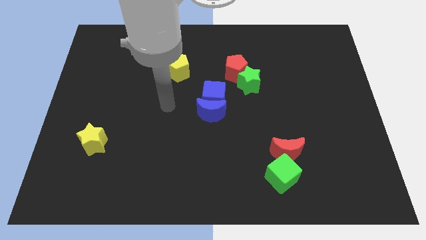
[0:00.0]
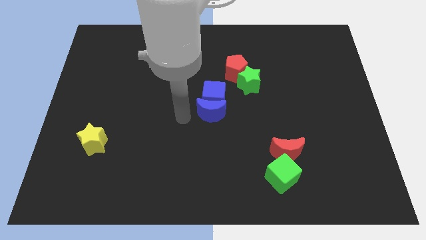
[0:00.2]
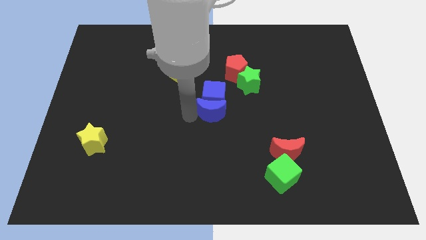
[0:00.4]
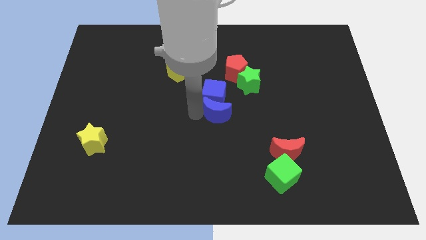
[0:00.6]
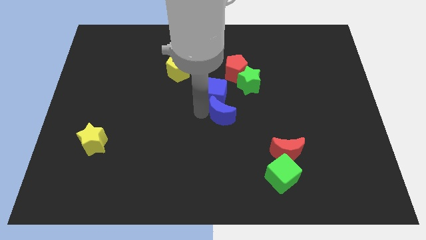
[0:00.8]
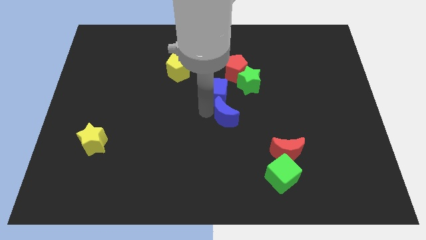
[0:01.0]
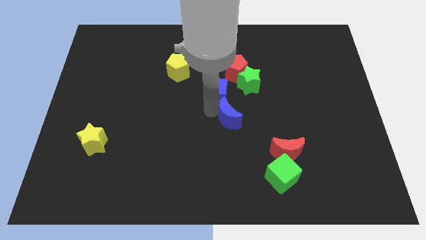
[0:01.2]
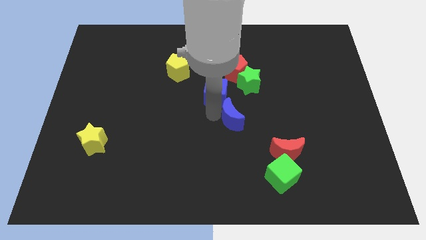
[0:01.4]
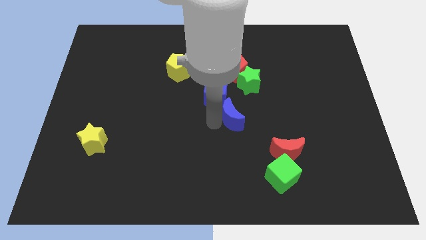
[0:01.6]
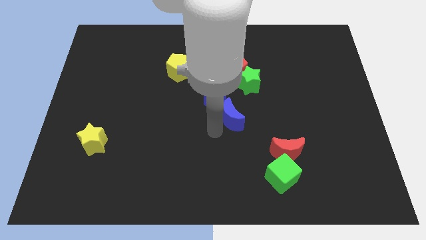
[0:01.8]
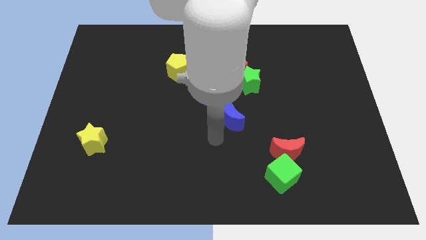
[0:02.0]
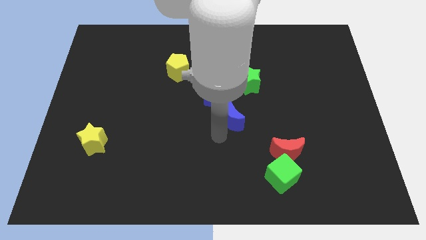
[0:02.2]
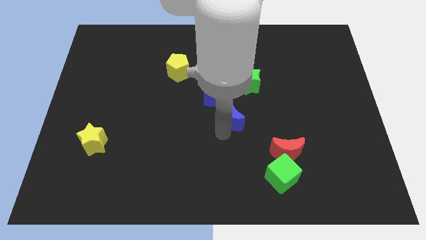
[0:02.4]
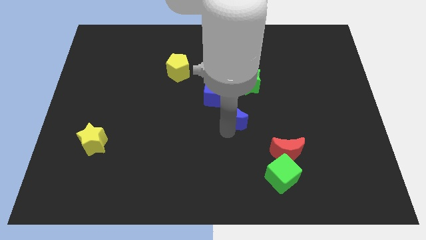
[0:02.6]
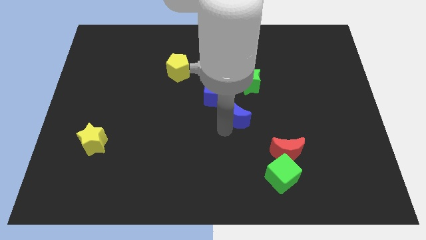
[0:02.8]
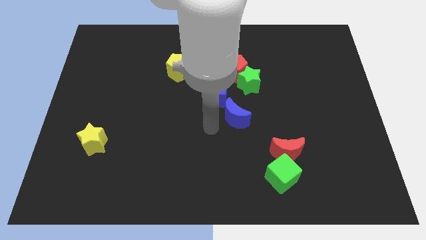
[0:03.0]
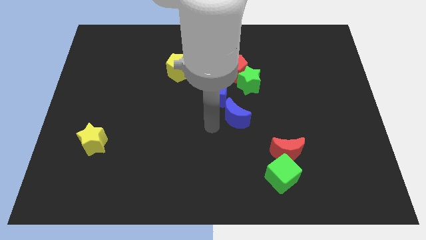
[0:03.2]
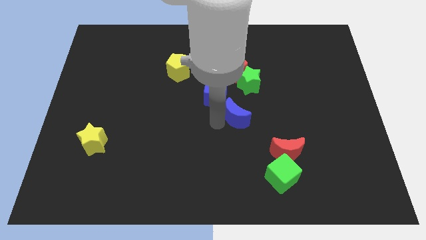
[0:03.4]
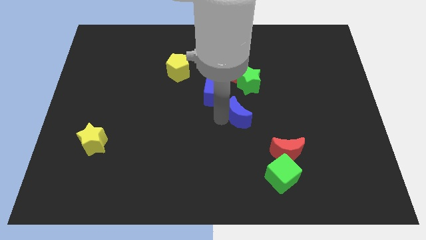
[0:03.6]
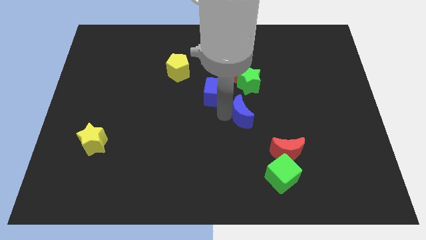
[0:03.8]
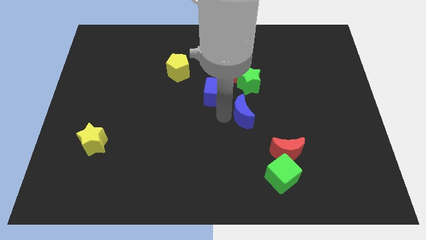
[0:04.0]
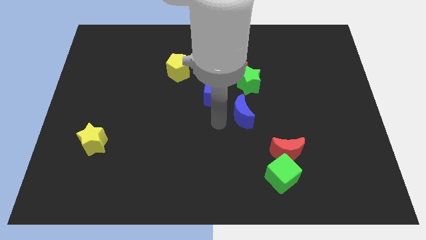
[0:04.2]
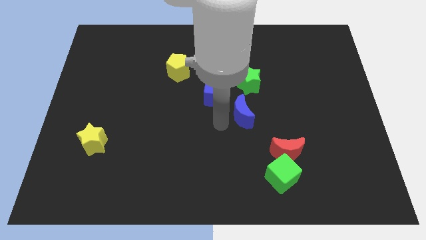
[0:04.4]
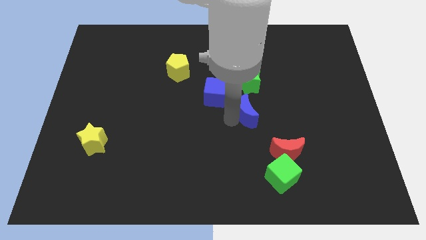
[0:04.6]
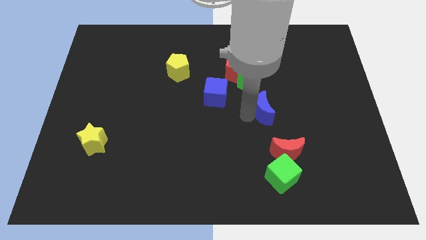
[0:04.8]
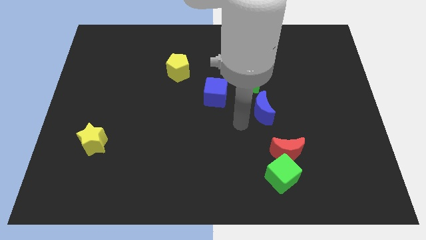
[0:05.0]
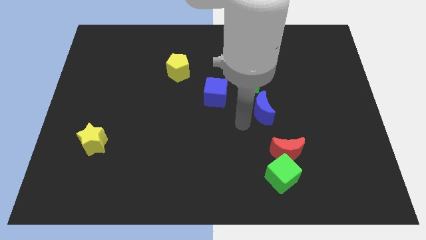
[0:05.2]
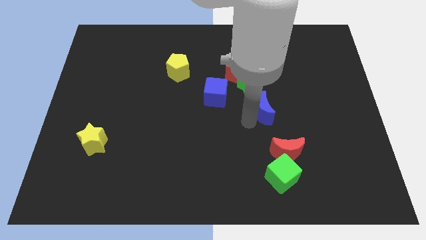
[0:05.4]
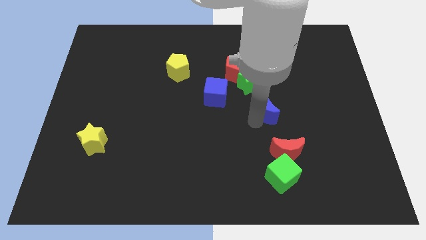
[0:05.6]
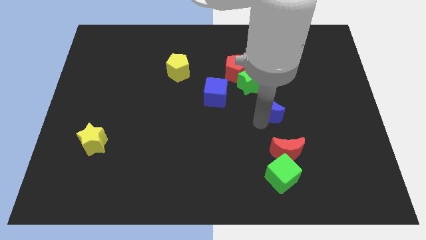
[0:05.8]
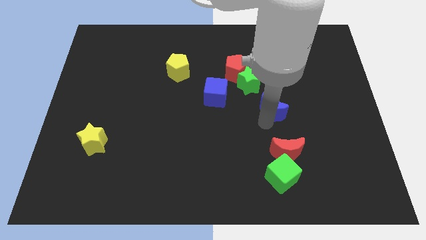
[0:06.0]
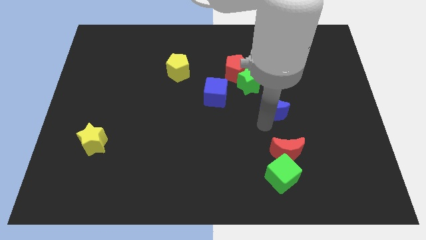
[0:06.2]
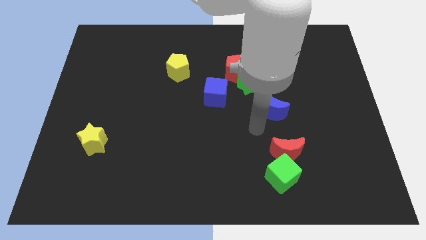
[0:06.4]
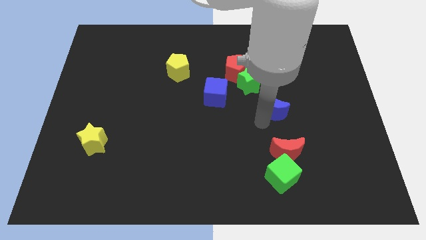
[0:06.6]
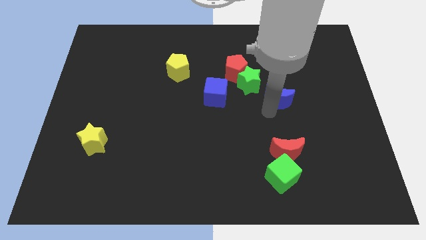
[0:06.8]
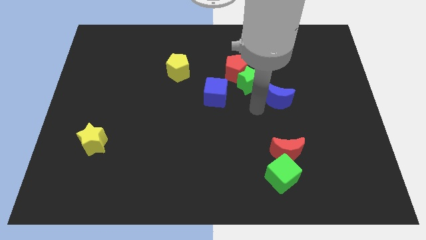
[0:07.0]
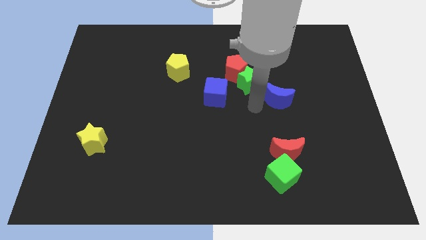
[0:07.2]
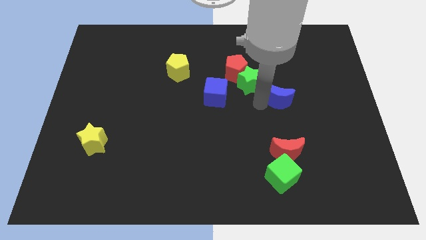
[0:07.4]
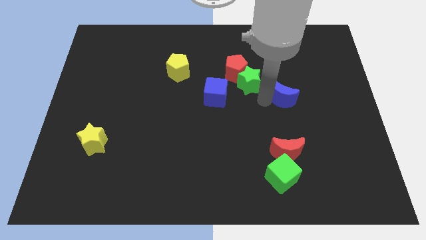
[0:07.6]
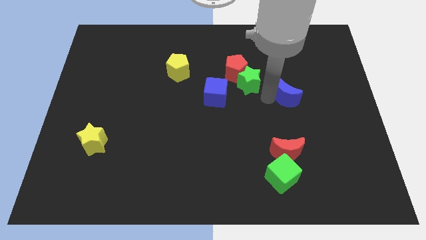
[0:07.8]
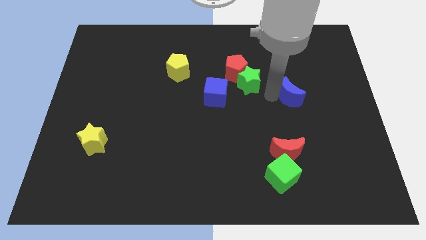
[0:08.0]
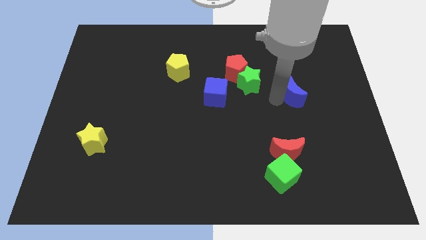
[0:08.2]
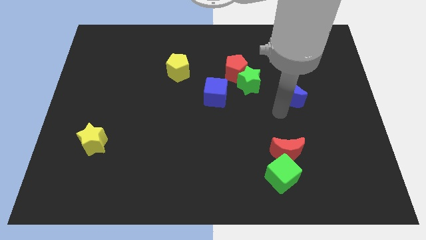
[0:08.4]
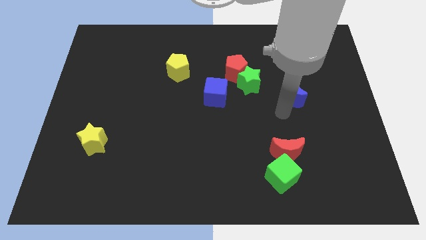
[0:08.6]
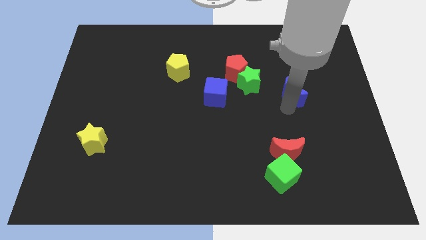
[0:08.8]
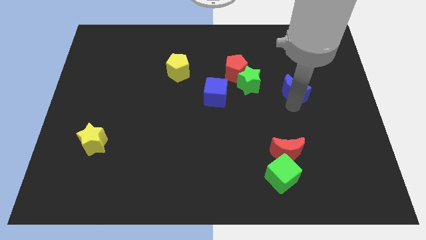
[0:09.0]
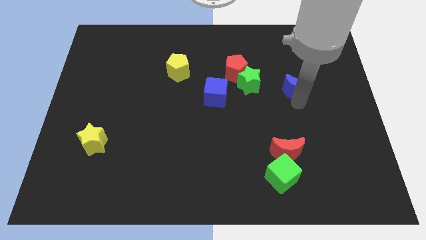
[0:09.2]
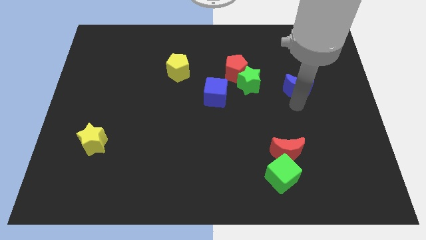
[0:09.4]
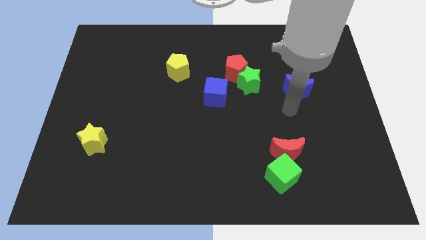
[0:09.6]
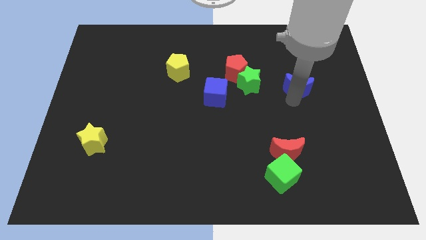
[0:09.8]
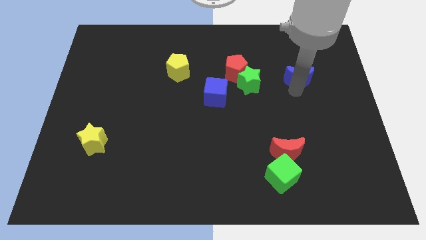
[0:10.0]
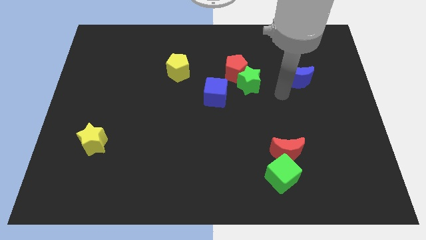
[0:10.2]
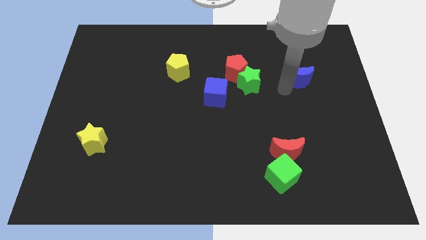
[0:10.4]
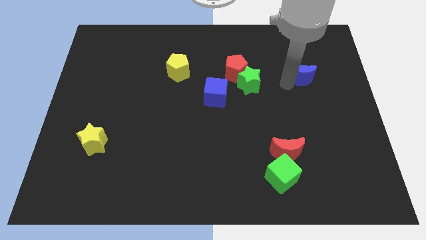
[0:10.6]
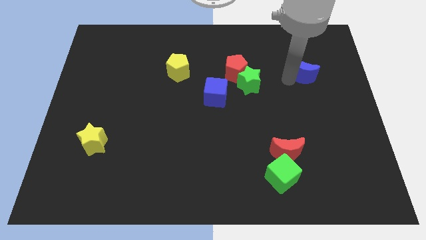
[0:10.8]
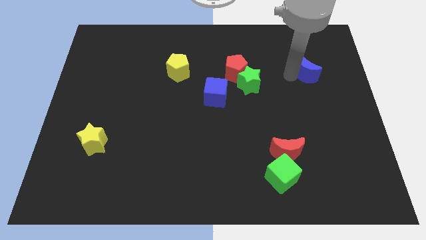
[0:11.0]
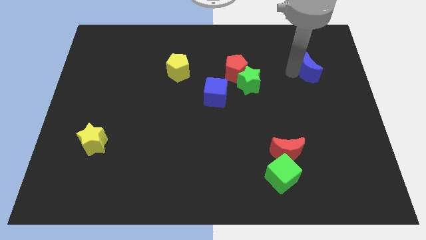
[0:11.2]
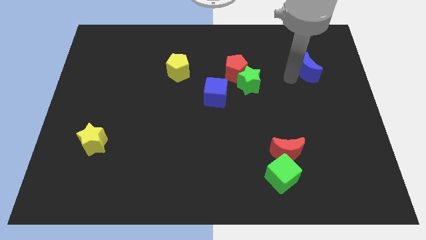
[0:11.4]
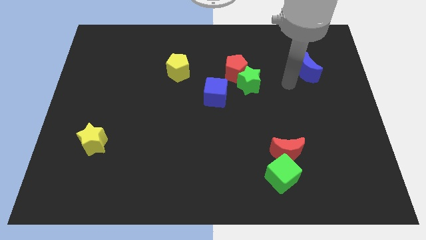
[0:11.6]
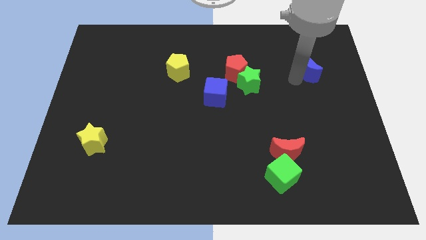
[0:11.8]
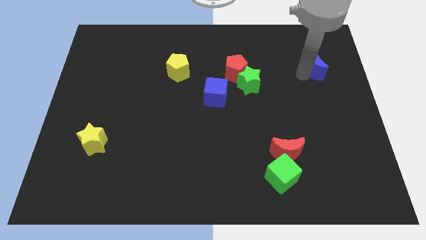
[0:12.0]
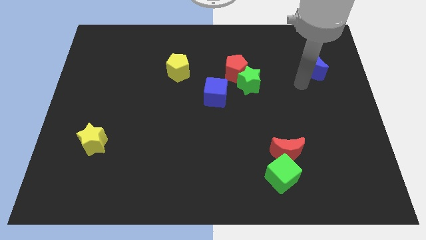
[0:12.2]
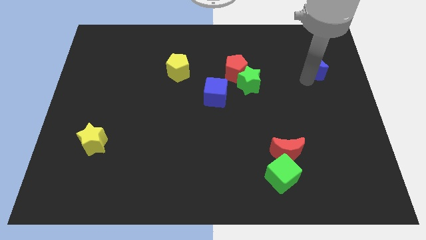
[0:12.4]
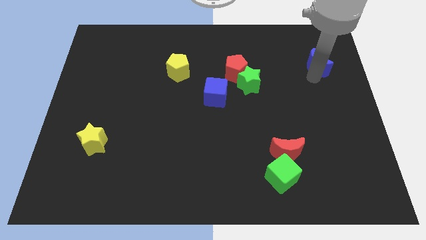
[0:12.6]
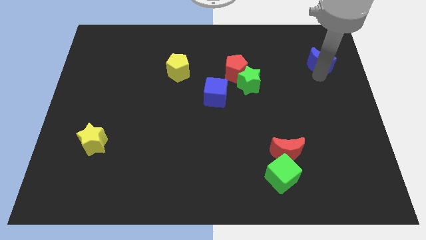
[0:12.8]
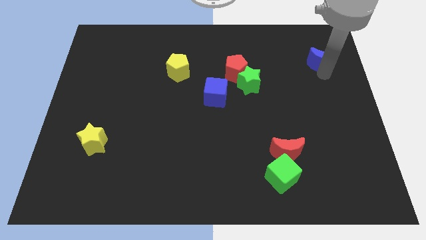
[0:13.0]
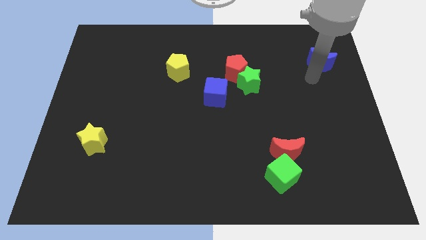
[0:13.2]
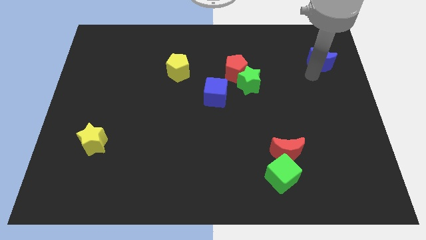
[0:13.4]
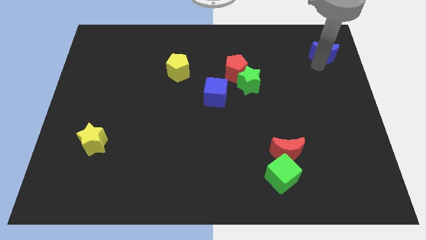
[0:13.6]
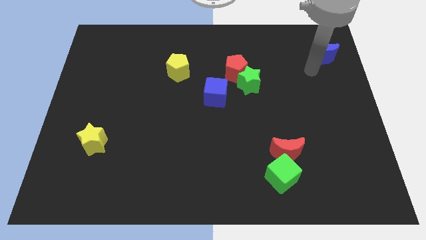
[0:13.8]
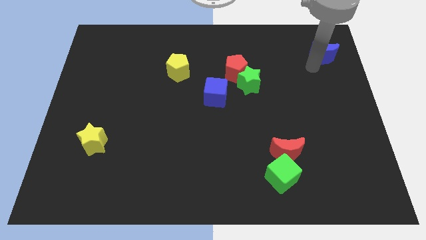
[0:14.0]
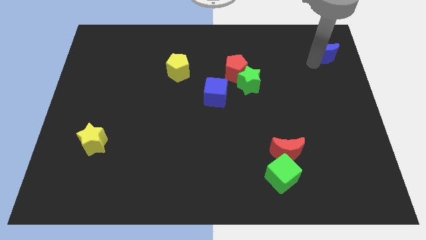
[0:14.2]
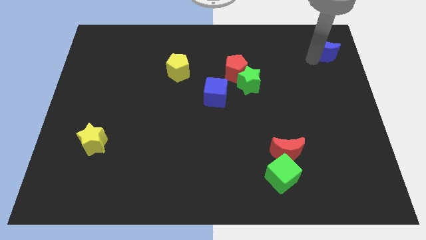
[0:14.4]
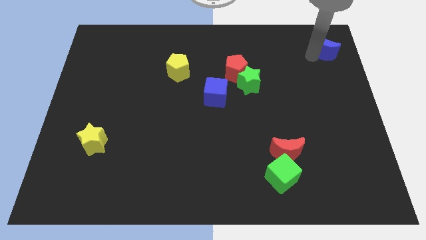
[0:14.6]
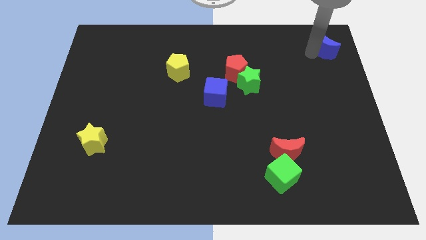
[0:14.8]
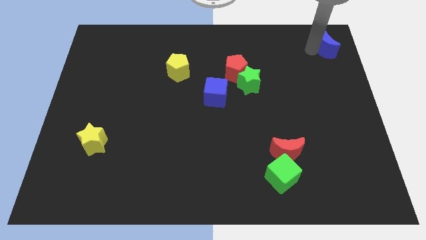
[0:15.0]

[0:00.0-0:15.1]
push the blue moon to the top right
